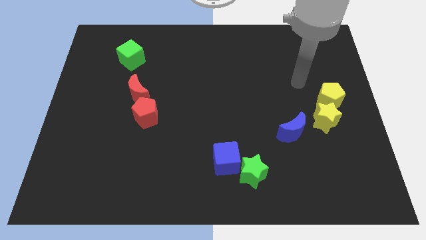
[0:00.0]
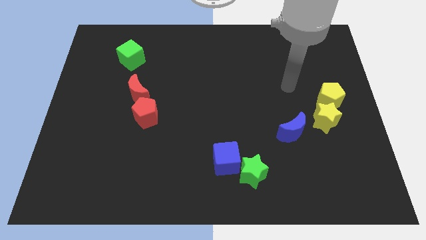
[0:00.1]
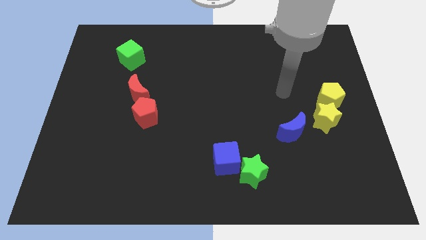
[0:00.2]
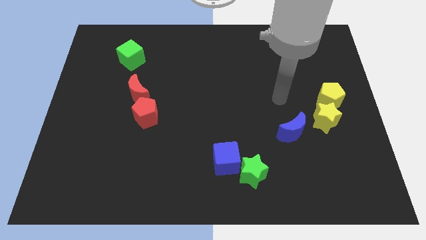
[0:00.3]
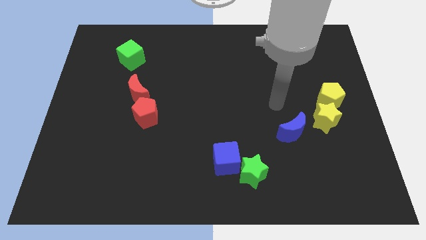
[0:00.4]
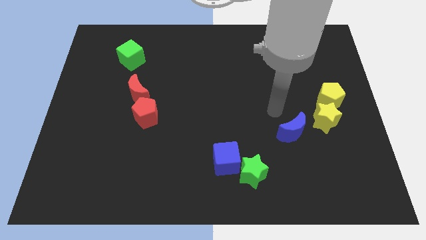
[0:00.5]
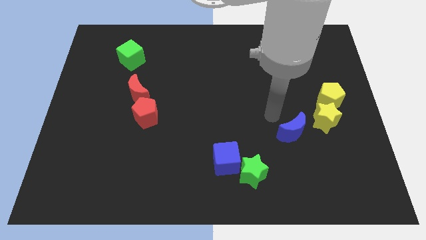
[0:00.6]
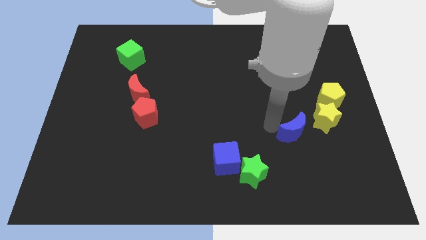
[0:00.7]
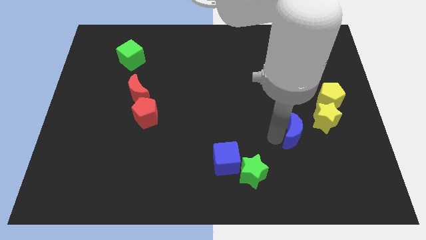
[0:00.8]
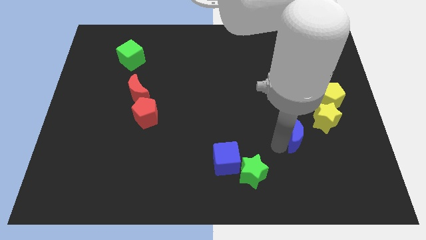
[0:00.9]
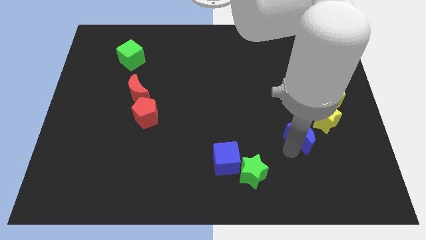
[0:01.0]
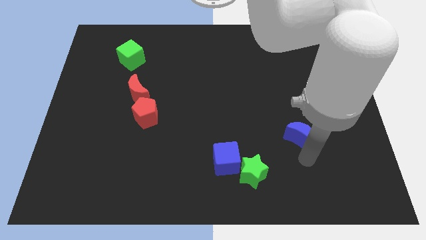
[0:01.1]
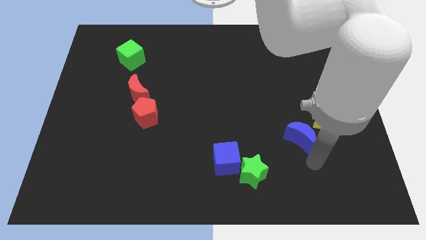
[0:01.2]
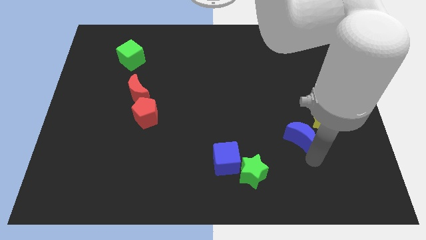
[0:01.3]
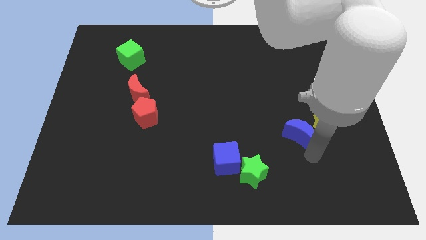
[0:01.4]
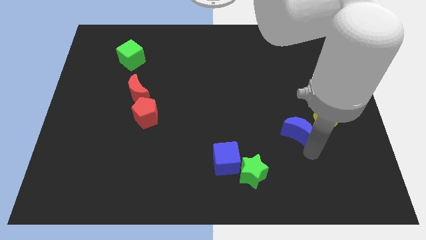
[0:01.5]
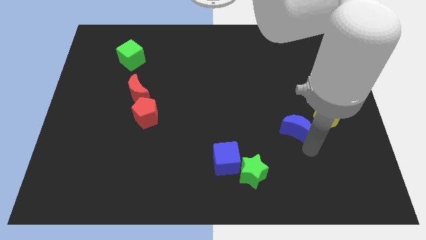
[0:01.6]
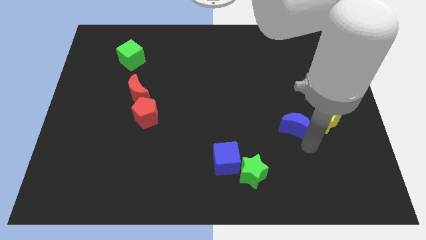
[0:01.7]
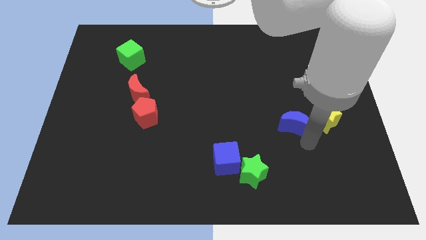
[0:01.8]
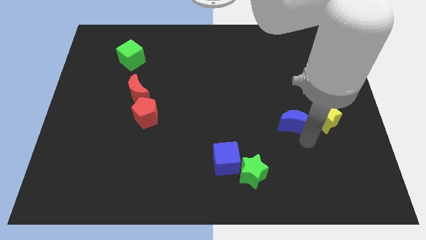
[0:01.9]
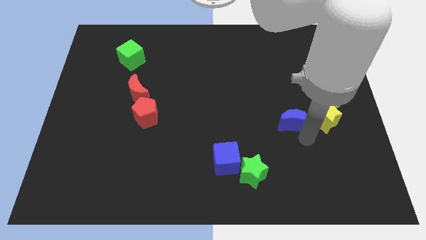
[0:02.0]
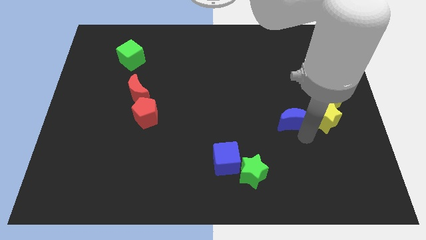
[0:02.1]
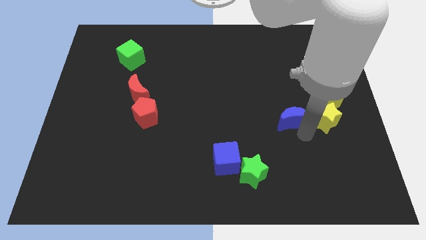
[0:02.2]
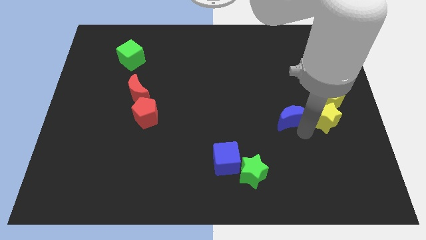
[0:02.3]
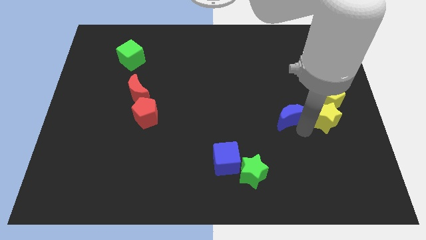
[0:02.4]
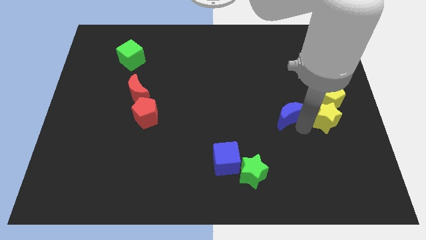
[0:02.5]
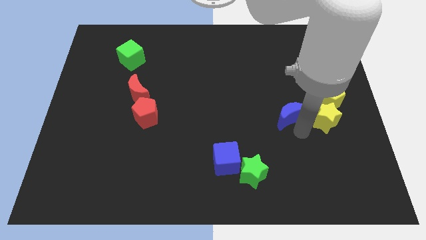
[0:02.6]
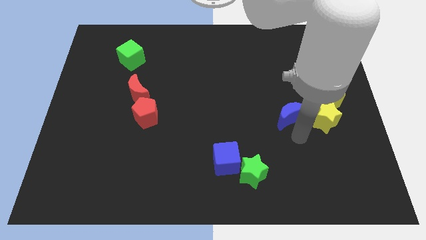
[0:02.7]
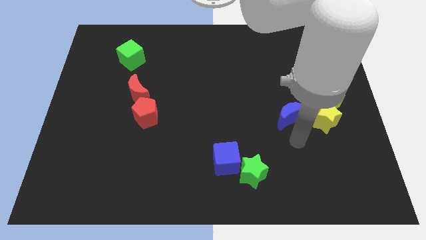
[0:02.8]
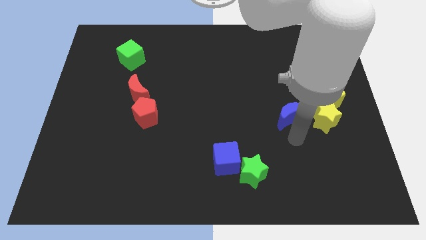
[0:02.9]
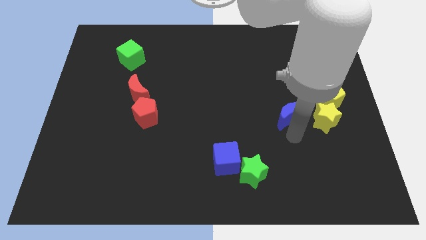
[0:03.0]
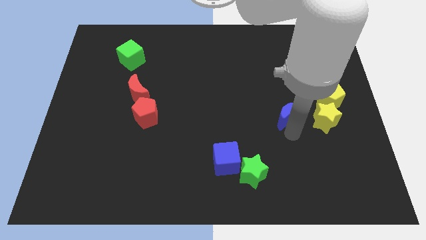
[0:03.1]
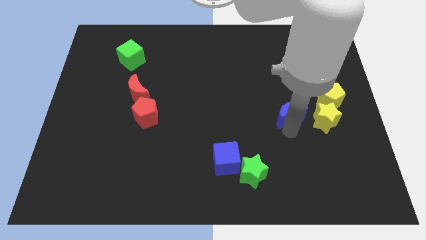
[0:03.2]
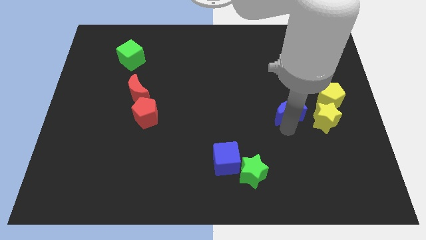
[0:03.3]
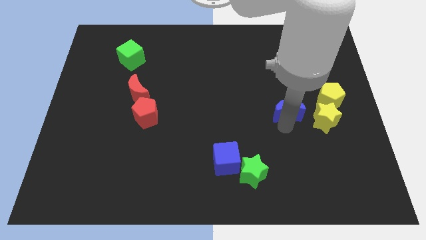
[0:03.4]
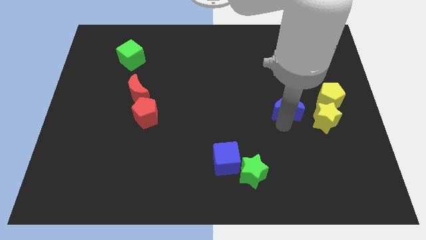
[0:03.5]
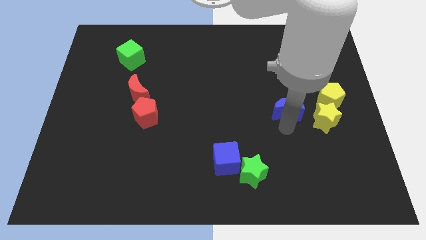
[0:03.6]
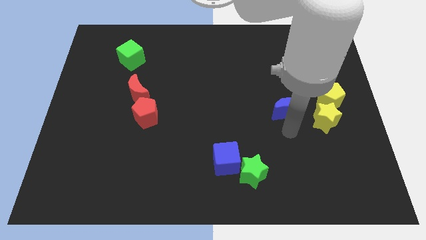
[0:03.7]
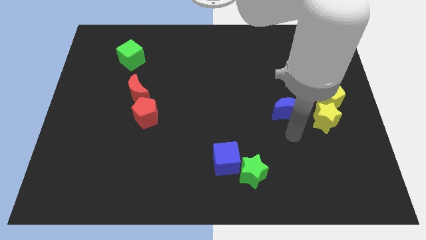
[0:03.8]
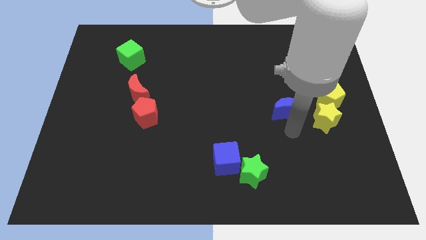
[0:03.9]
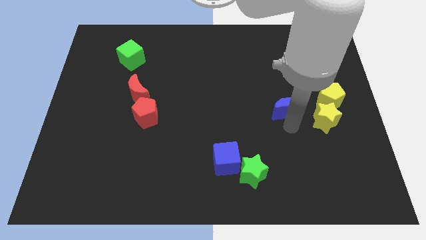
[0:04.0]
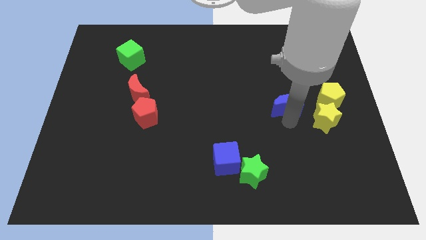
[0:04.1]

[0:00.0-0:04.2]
slightly push the blue moon up

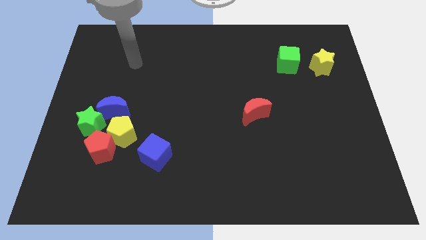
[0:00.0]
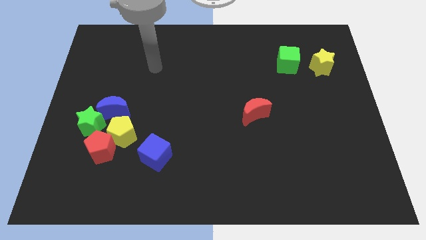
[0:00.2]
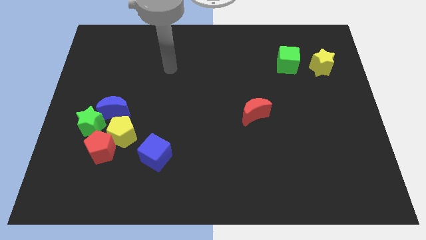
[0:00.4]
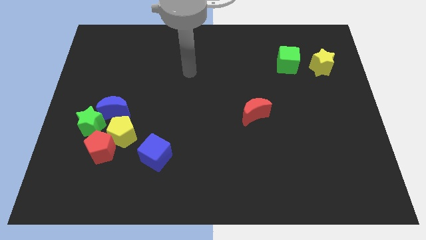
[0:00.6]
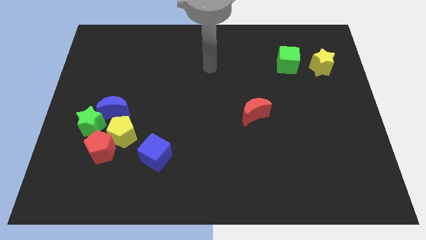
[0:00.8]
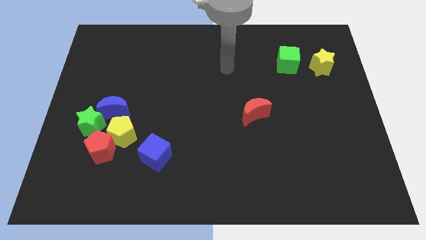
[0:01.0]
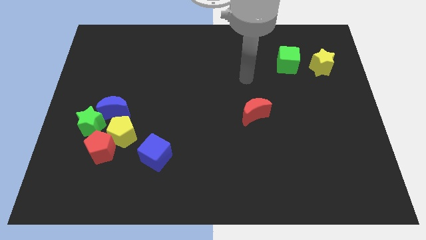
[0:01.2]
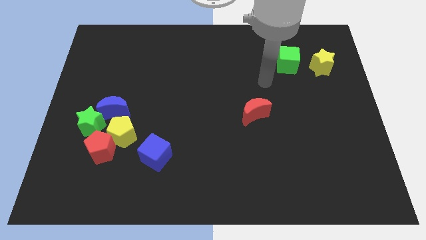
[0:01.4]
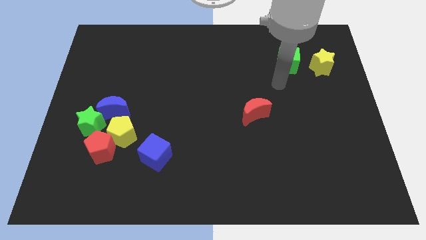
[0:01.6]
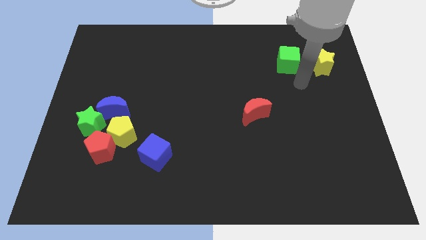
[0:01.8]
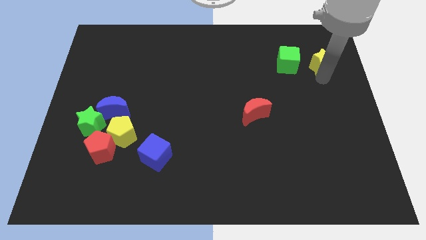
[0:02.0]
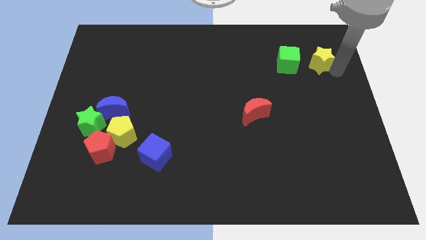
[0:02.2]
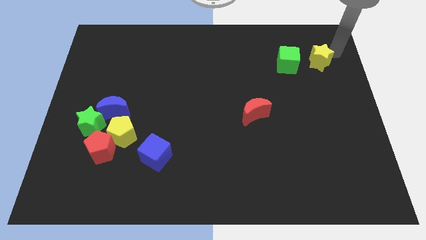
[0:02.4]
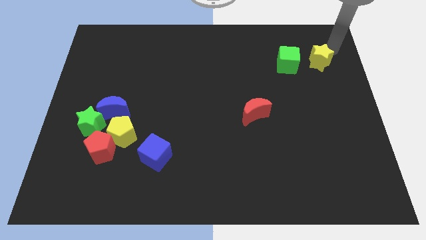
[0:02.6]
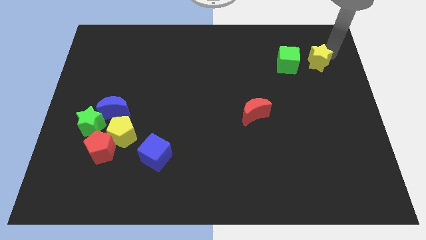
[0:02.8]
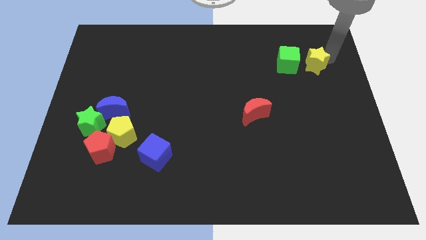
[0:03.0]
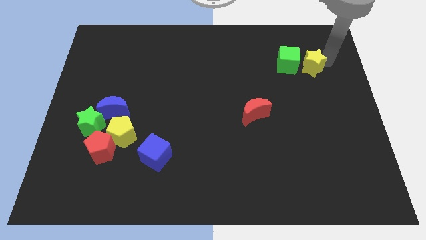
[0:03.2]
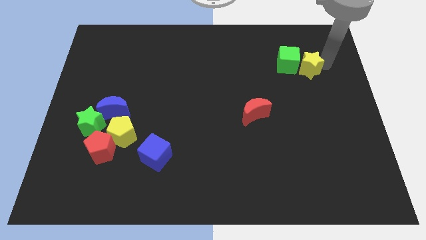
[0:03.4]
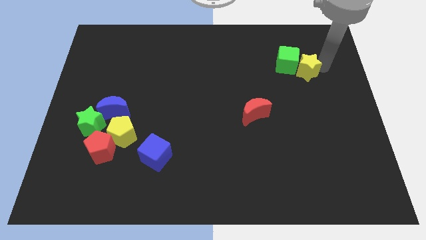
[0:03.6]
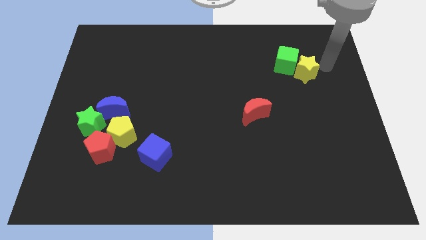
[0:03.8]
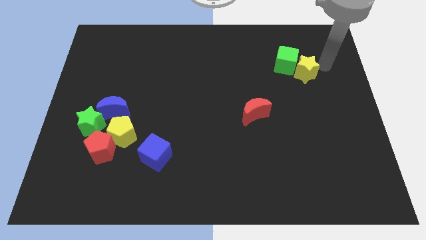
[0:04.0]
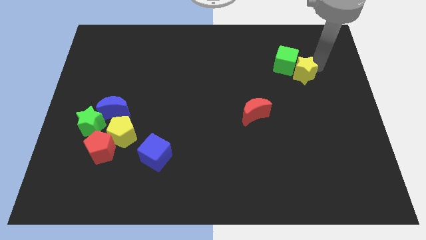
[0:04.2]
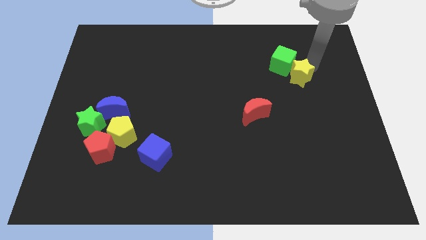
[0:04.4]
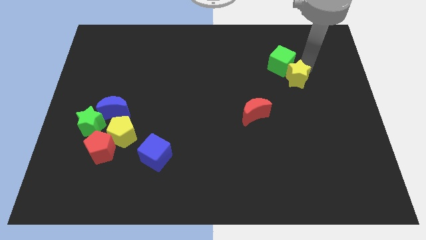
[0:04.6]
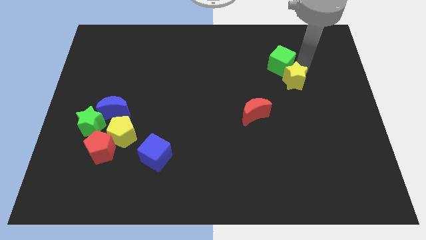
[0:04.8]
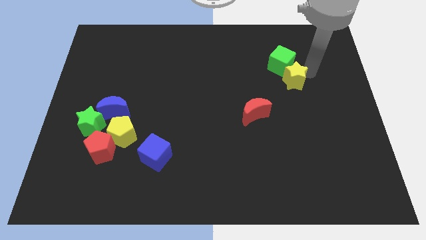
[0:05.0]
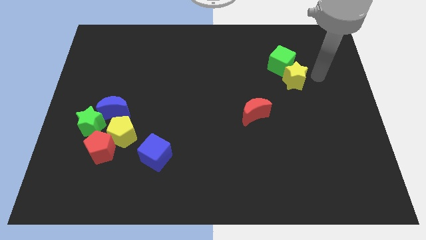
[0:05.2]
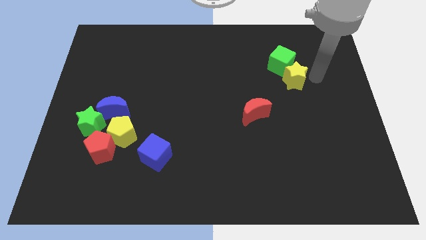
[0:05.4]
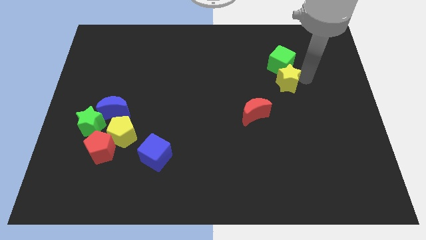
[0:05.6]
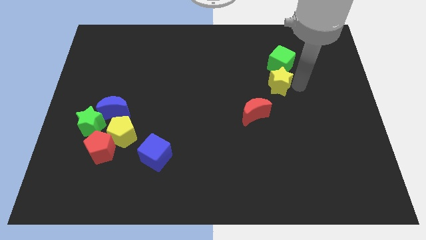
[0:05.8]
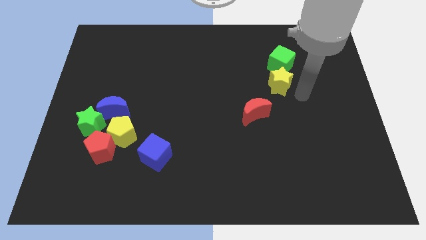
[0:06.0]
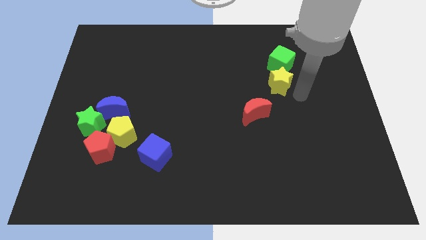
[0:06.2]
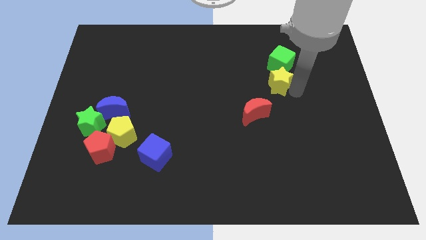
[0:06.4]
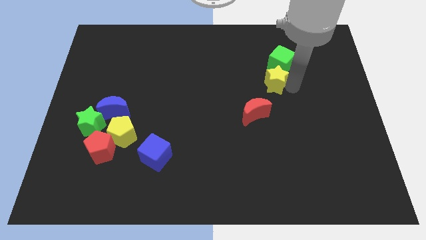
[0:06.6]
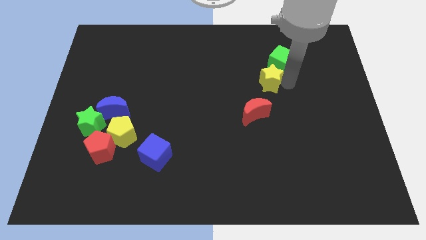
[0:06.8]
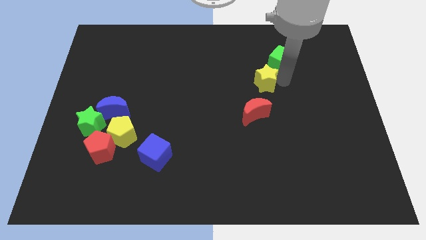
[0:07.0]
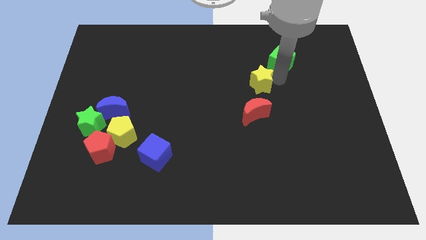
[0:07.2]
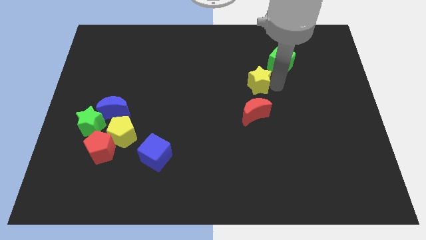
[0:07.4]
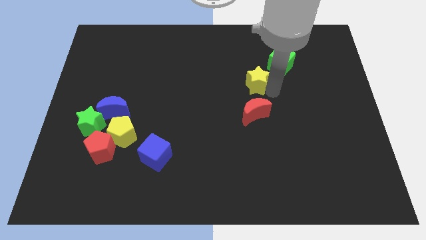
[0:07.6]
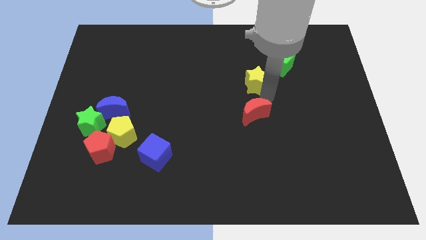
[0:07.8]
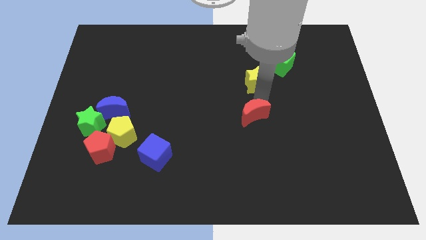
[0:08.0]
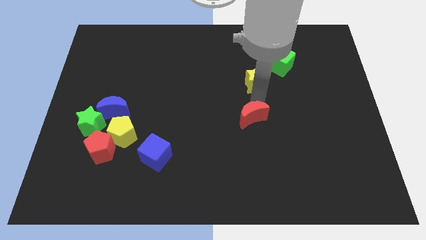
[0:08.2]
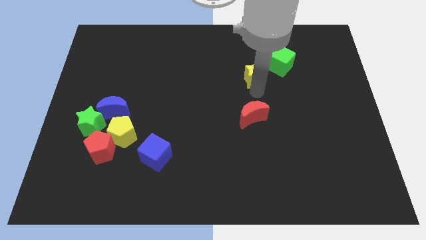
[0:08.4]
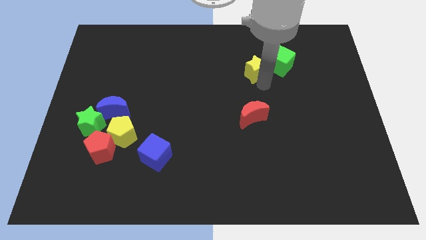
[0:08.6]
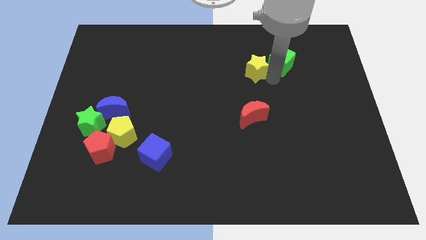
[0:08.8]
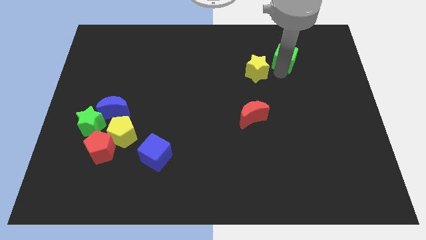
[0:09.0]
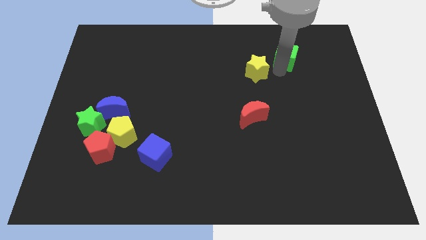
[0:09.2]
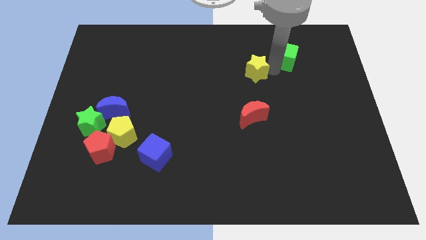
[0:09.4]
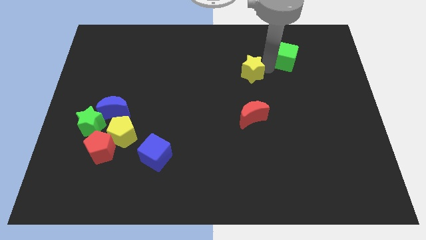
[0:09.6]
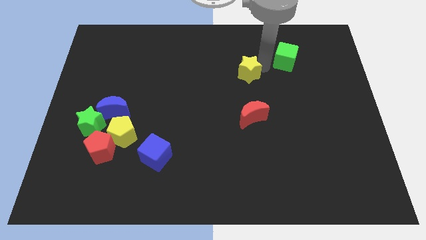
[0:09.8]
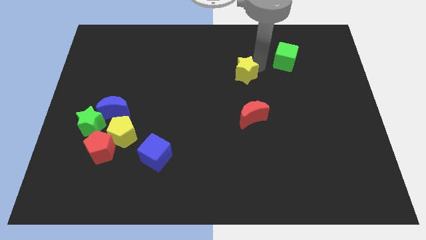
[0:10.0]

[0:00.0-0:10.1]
move the yellow star left
